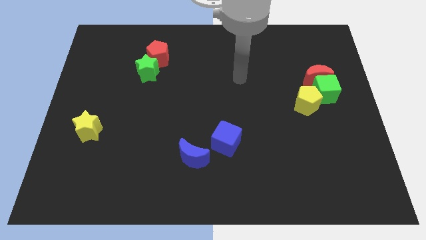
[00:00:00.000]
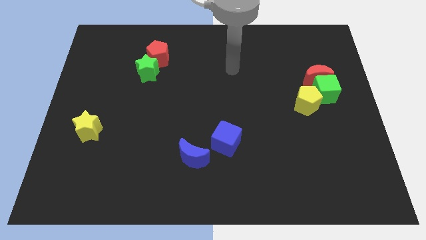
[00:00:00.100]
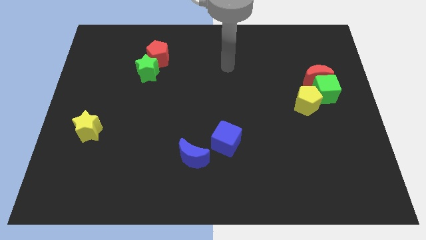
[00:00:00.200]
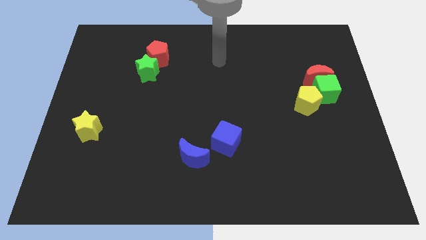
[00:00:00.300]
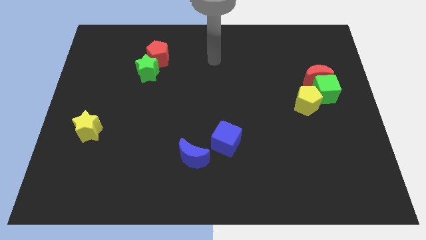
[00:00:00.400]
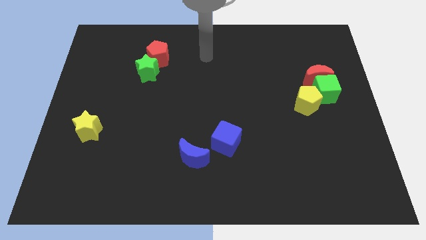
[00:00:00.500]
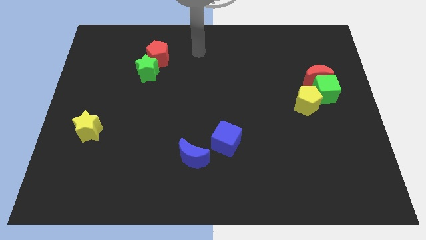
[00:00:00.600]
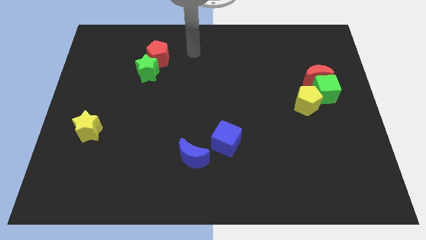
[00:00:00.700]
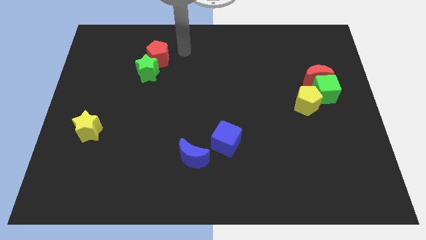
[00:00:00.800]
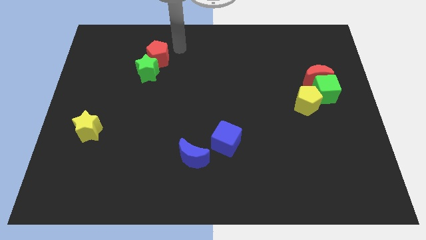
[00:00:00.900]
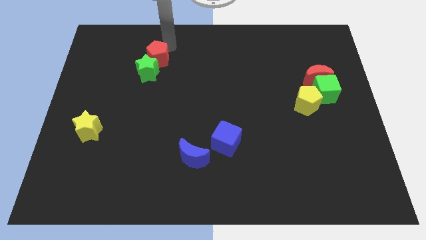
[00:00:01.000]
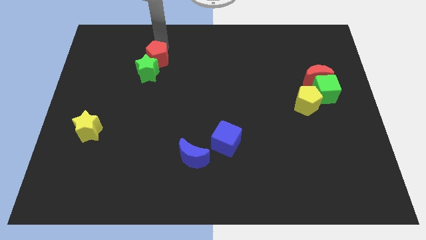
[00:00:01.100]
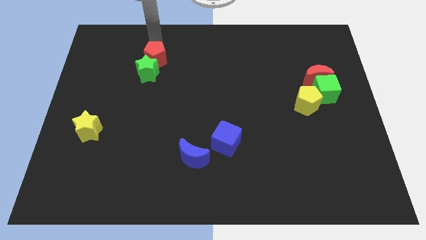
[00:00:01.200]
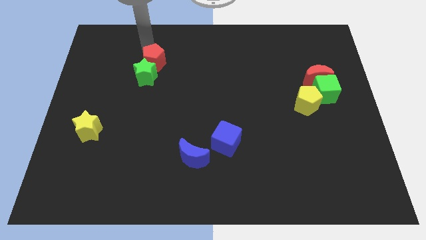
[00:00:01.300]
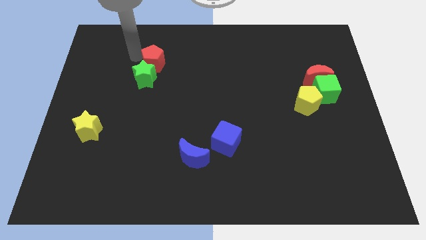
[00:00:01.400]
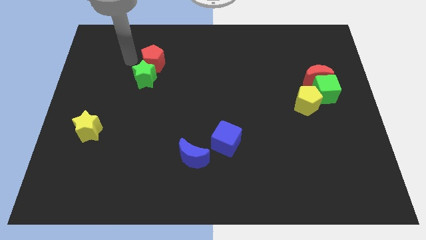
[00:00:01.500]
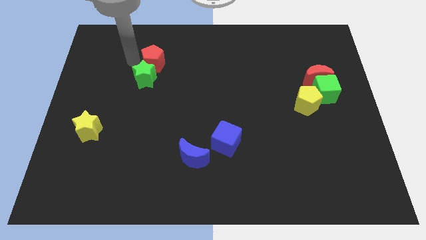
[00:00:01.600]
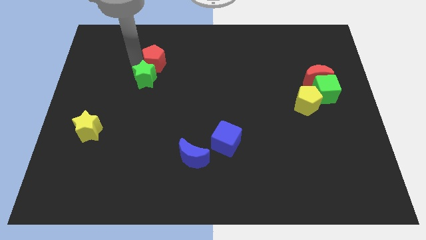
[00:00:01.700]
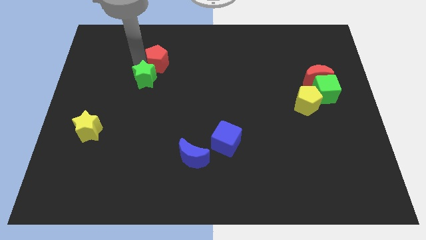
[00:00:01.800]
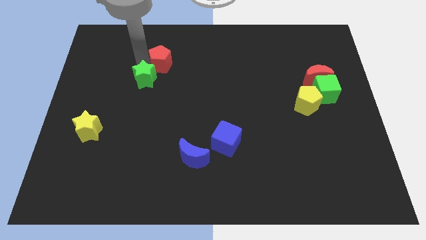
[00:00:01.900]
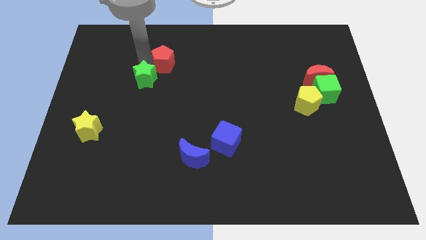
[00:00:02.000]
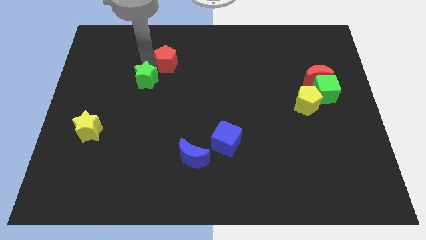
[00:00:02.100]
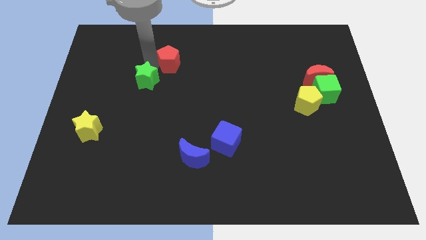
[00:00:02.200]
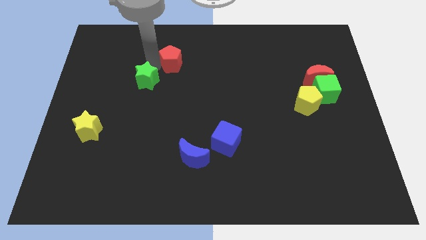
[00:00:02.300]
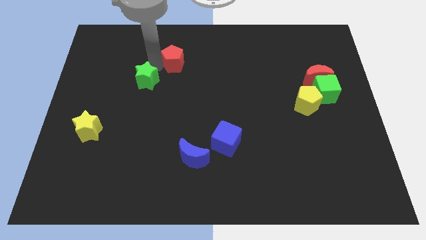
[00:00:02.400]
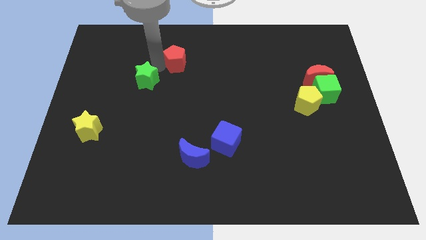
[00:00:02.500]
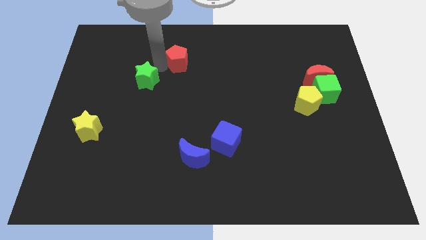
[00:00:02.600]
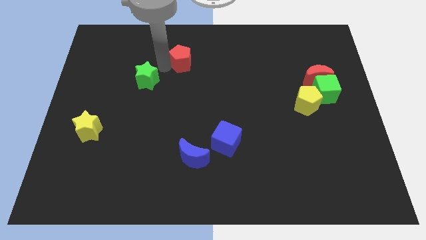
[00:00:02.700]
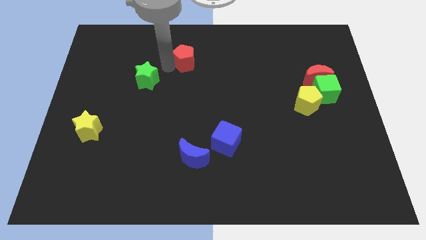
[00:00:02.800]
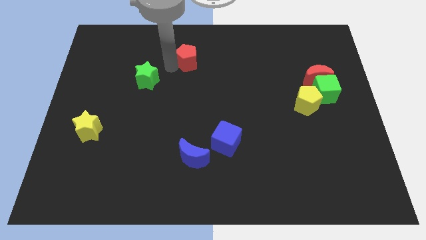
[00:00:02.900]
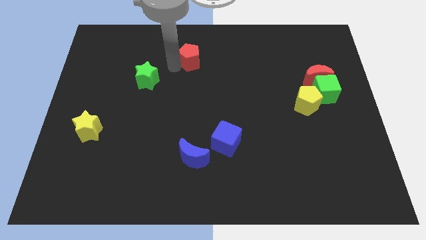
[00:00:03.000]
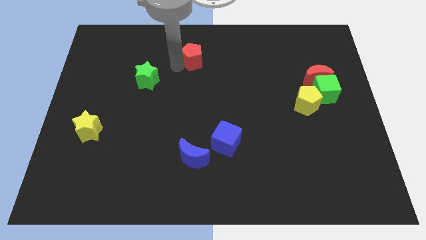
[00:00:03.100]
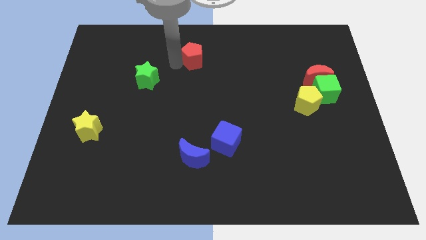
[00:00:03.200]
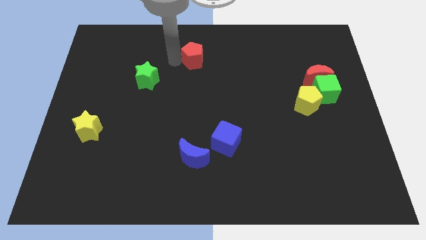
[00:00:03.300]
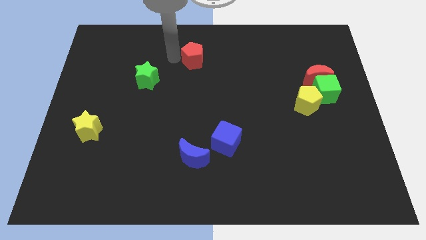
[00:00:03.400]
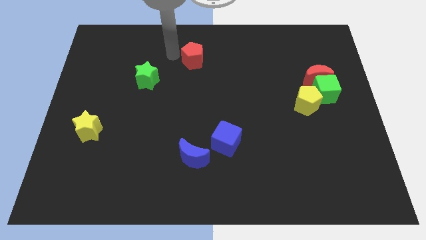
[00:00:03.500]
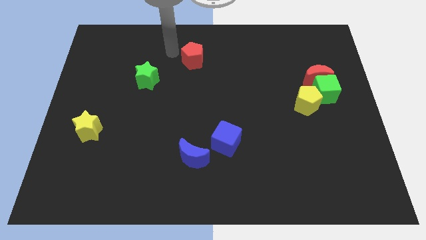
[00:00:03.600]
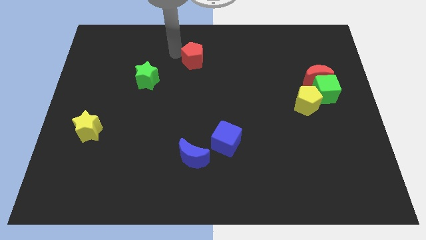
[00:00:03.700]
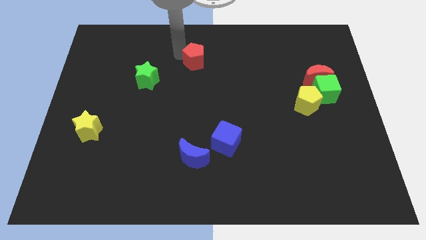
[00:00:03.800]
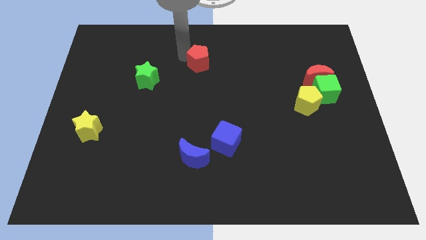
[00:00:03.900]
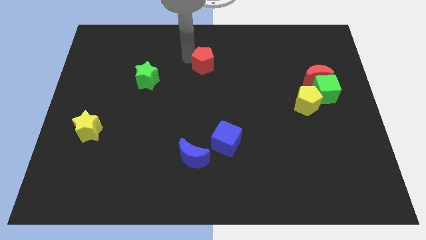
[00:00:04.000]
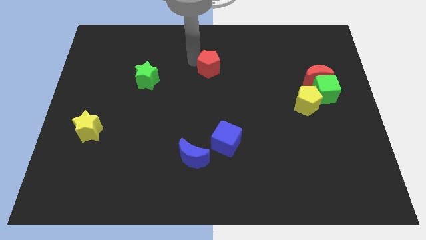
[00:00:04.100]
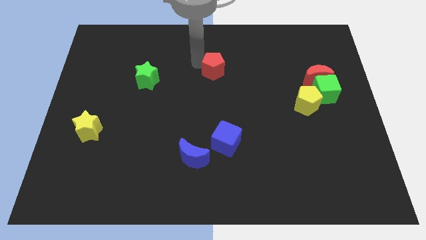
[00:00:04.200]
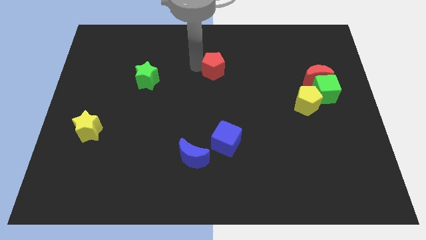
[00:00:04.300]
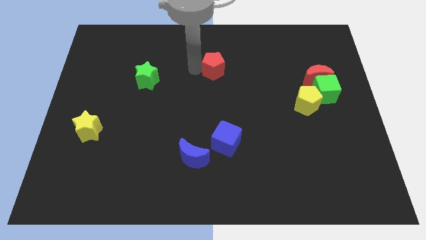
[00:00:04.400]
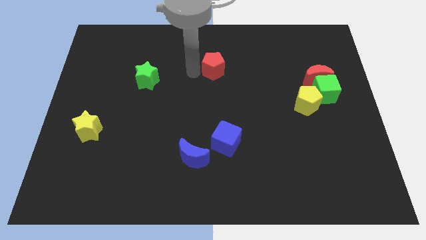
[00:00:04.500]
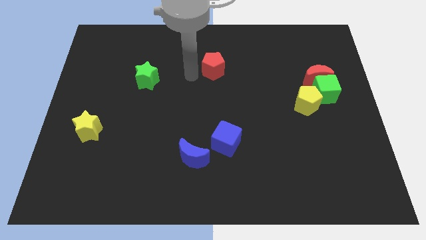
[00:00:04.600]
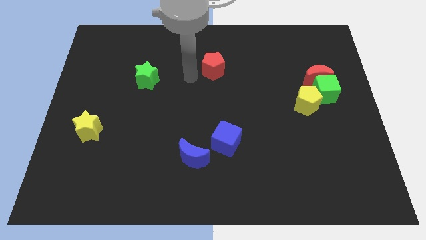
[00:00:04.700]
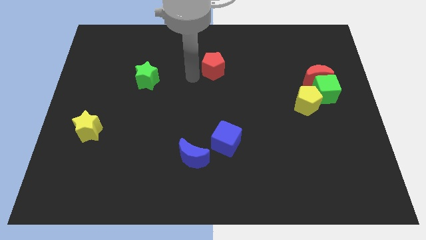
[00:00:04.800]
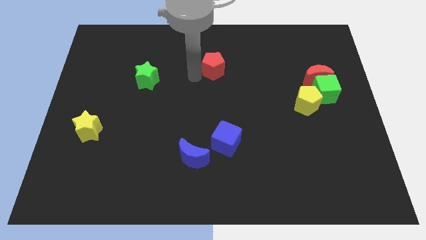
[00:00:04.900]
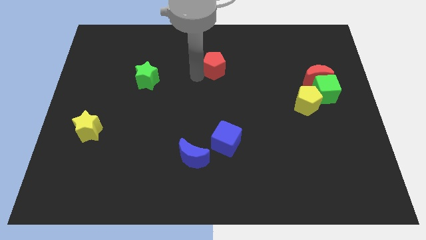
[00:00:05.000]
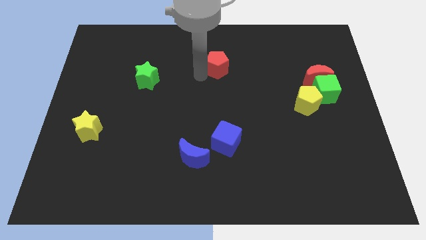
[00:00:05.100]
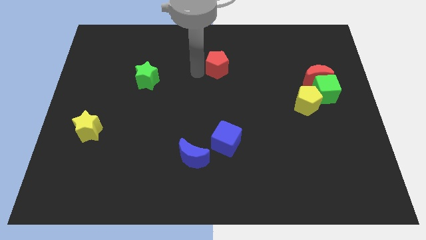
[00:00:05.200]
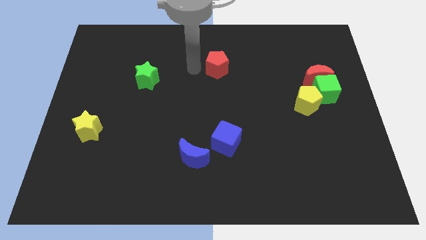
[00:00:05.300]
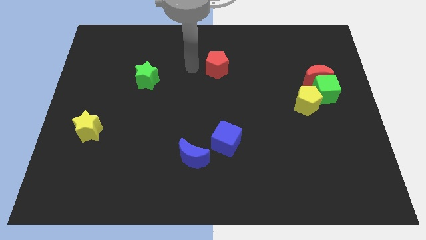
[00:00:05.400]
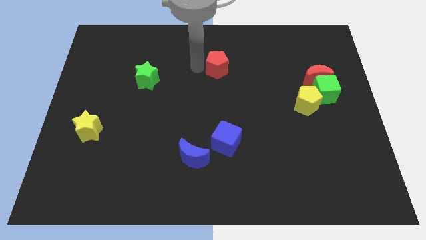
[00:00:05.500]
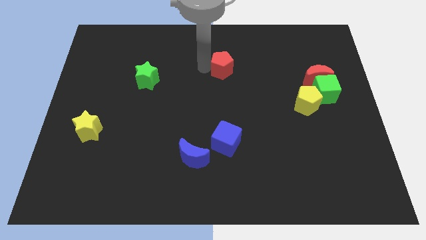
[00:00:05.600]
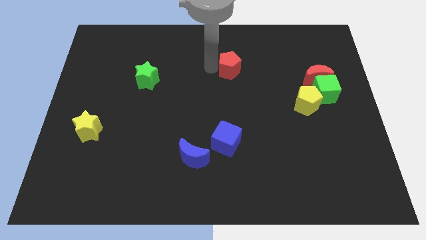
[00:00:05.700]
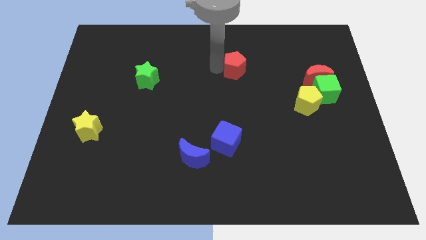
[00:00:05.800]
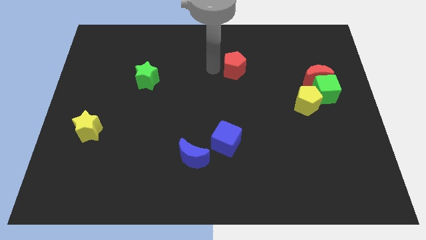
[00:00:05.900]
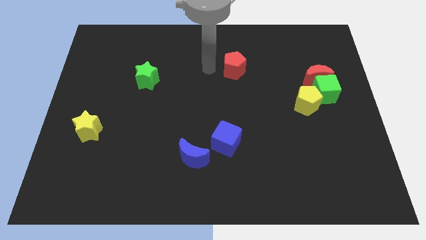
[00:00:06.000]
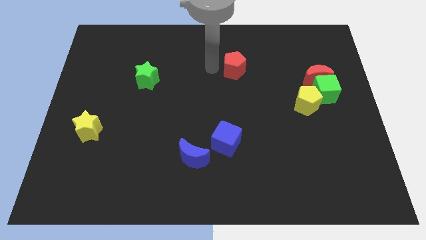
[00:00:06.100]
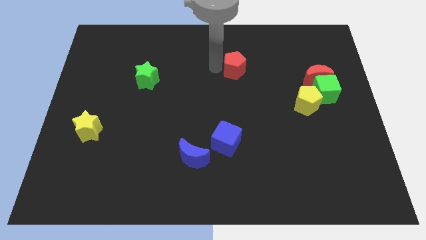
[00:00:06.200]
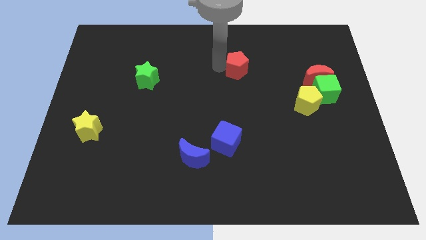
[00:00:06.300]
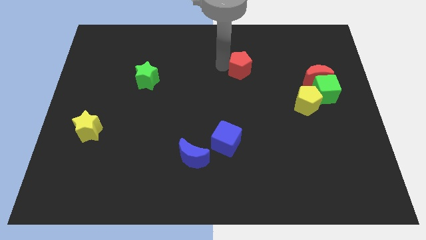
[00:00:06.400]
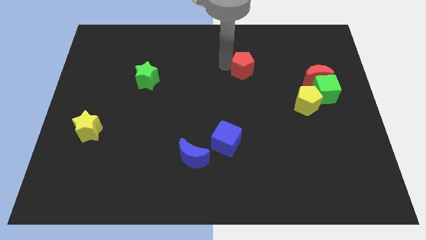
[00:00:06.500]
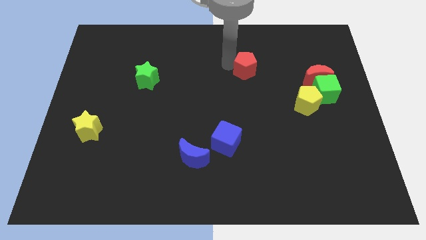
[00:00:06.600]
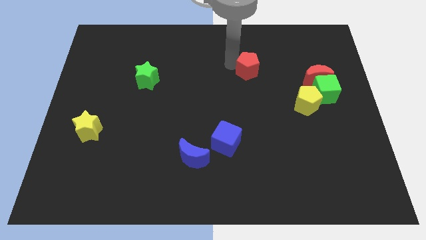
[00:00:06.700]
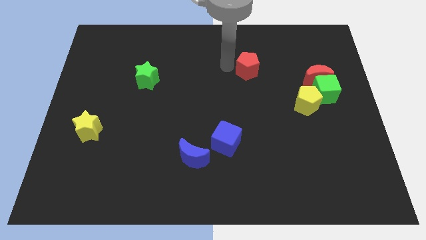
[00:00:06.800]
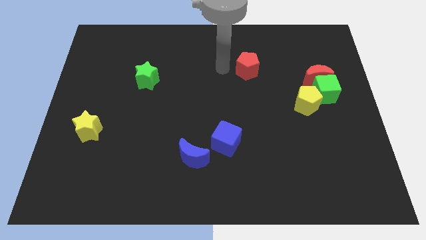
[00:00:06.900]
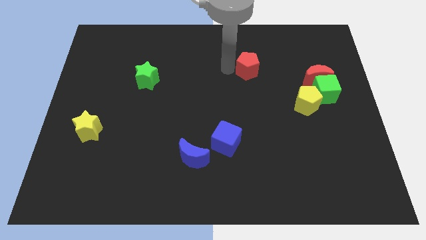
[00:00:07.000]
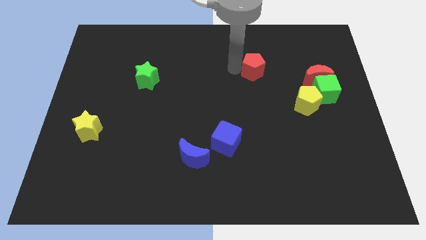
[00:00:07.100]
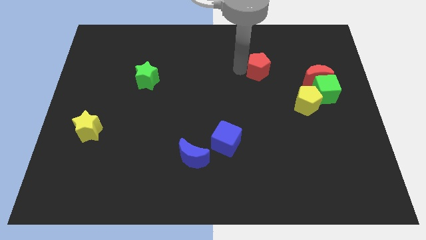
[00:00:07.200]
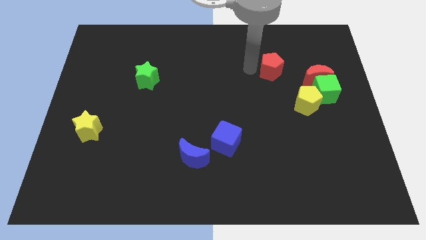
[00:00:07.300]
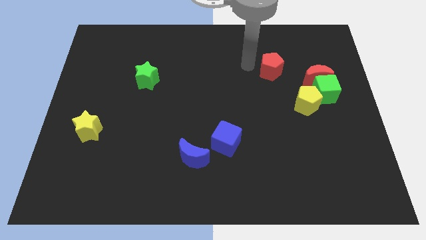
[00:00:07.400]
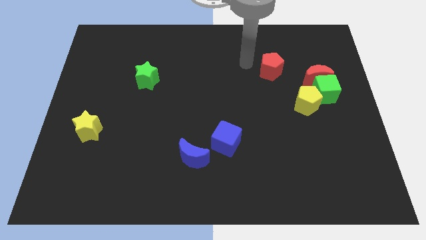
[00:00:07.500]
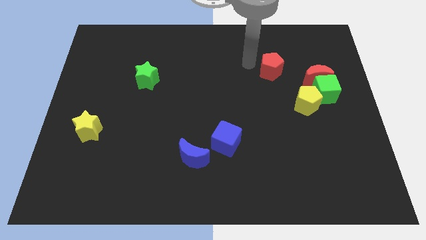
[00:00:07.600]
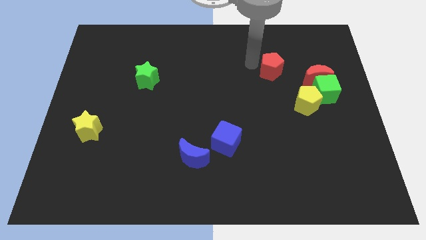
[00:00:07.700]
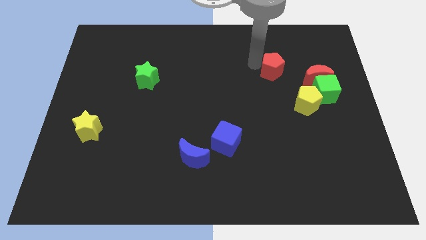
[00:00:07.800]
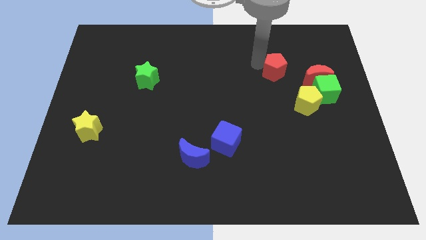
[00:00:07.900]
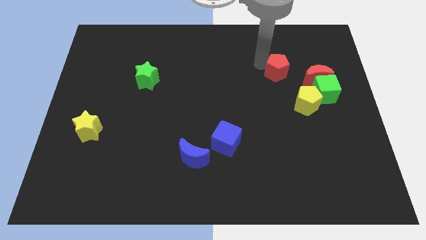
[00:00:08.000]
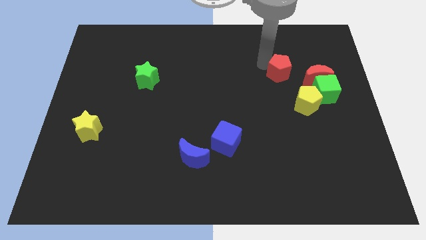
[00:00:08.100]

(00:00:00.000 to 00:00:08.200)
move the red pentagon to the top left side of the green cube
